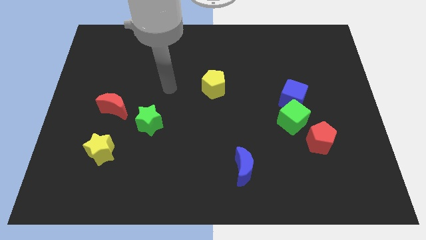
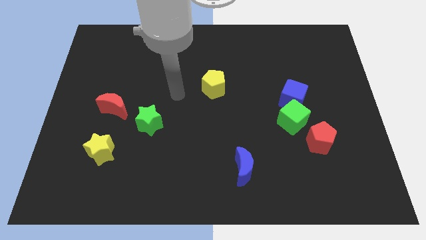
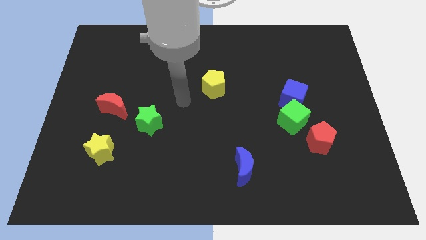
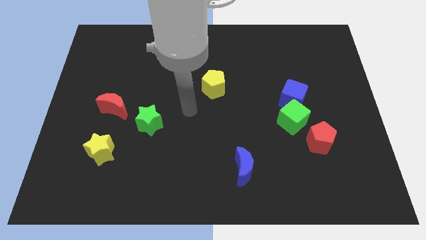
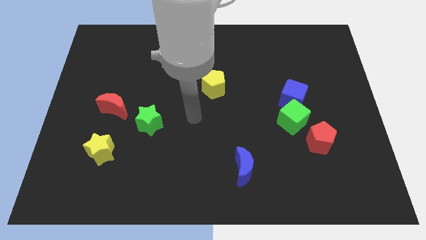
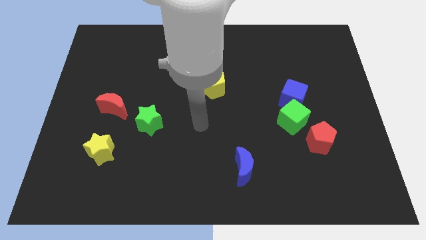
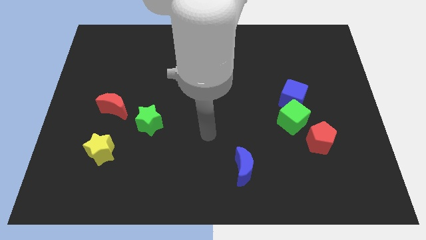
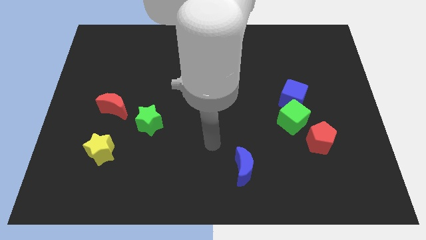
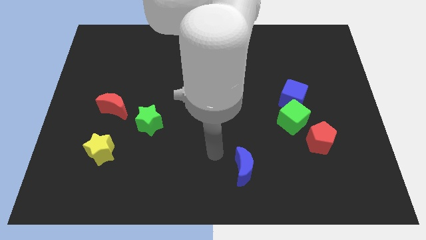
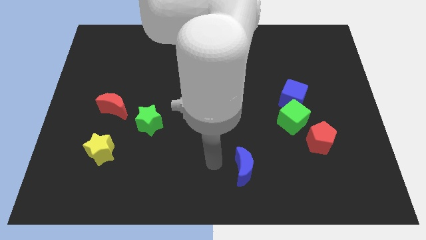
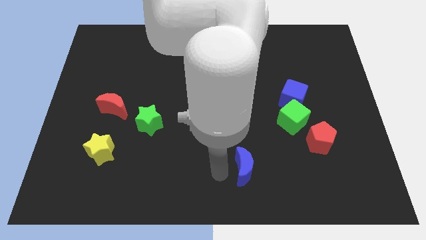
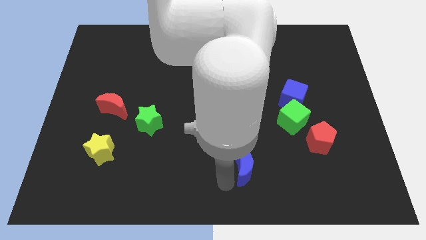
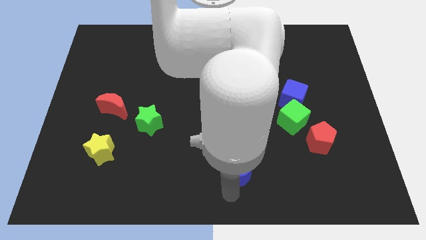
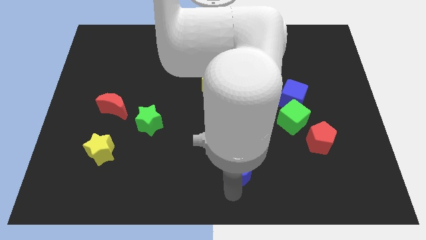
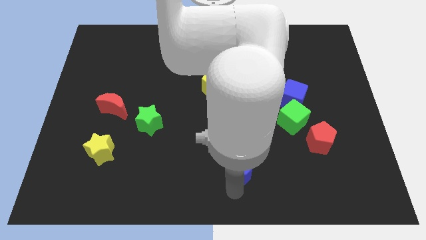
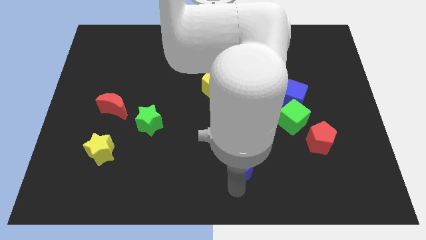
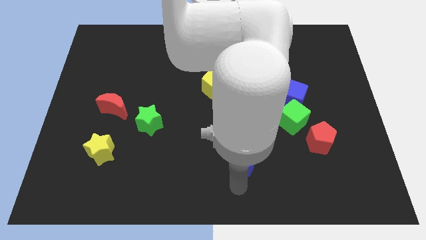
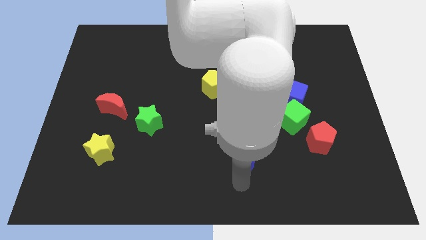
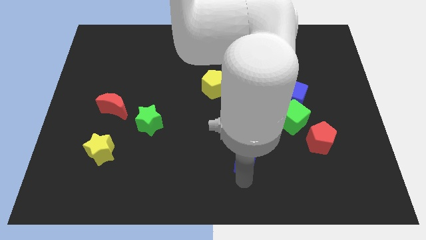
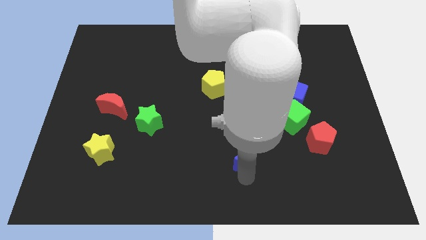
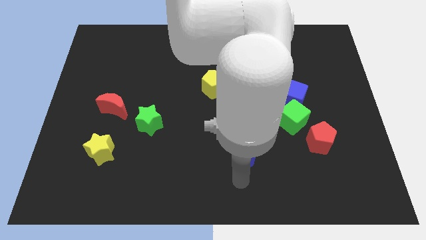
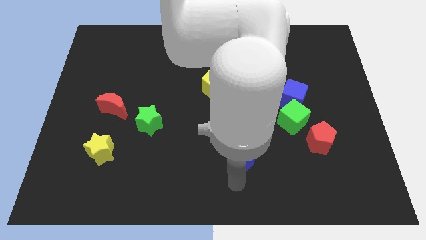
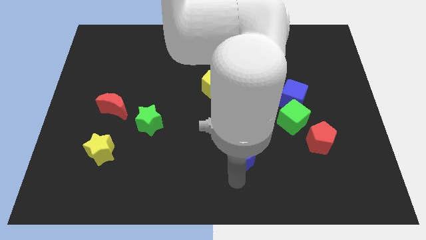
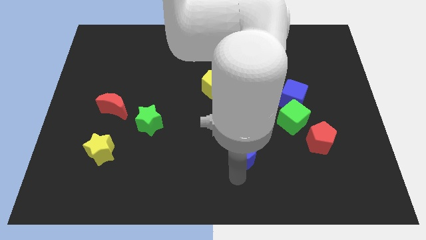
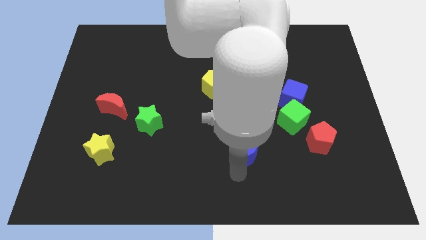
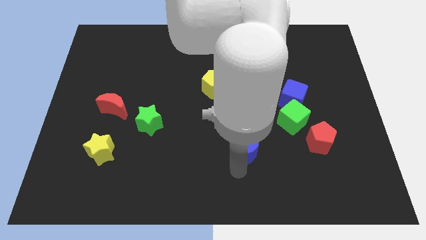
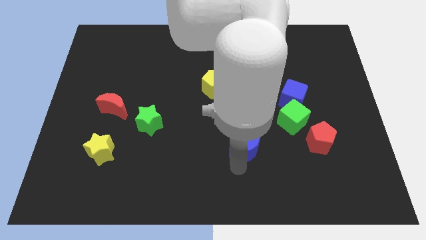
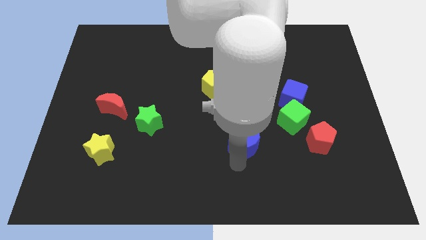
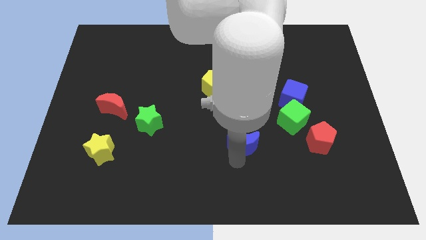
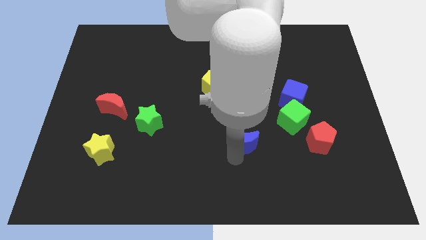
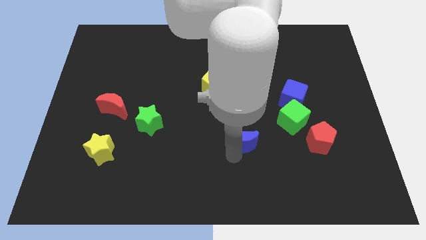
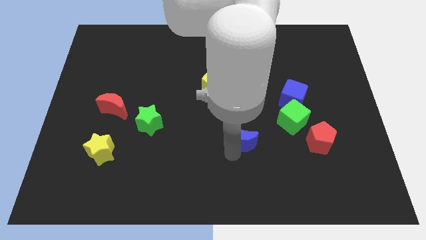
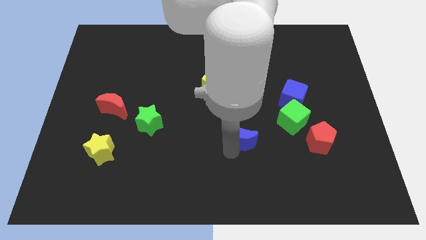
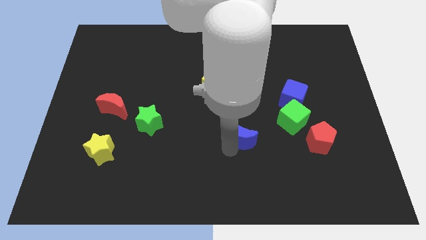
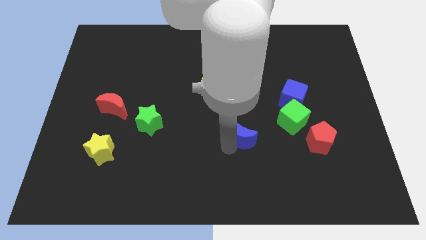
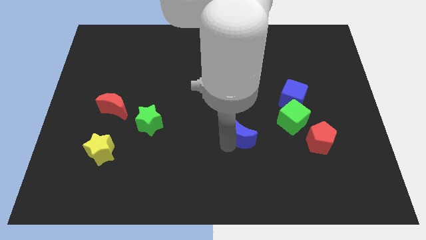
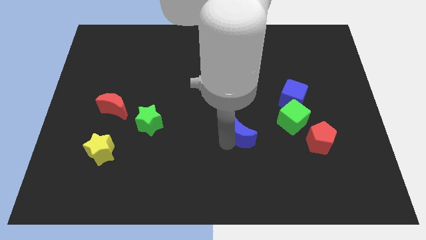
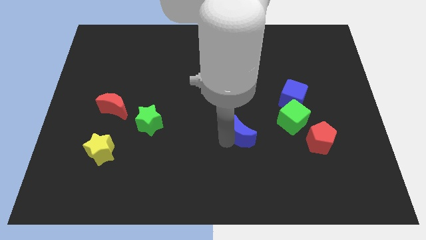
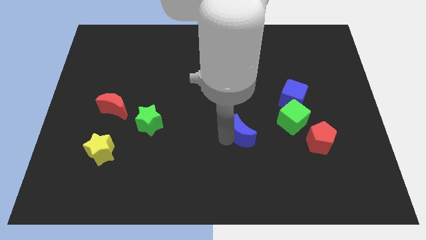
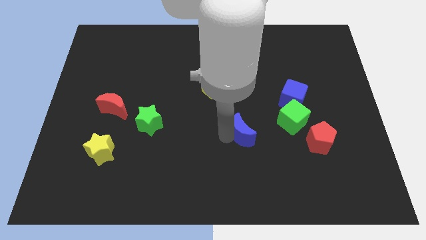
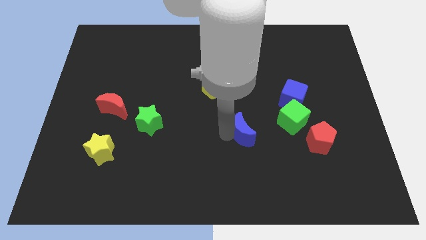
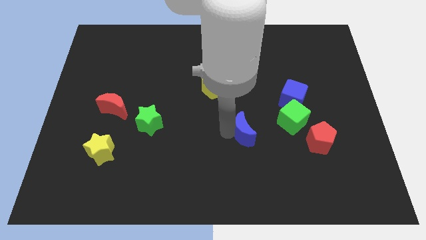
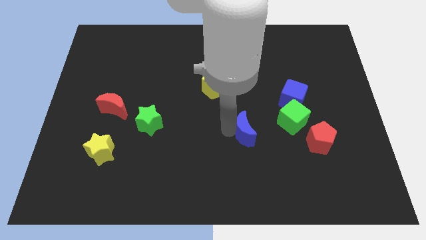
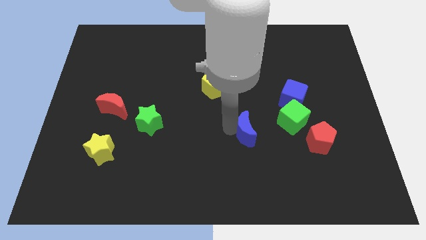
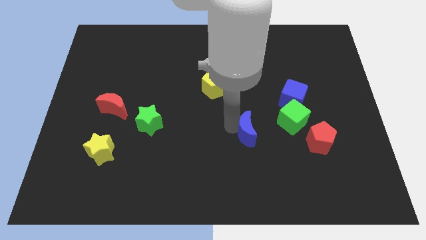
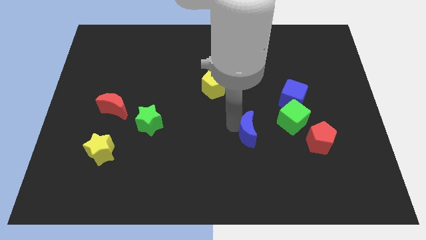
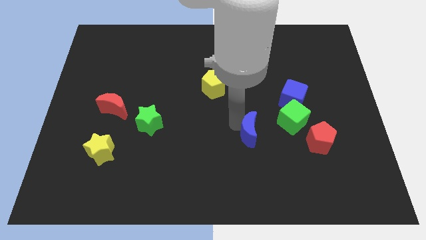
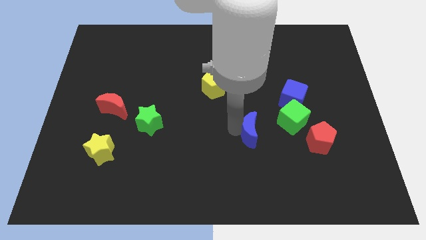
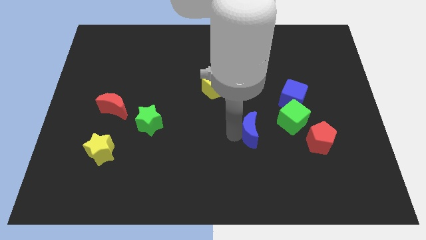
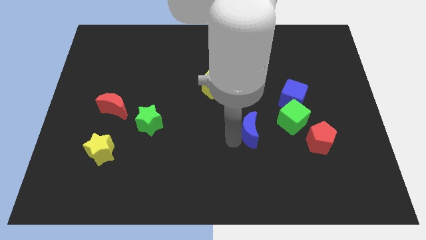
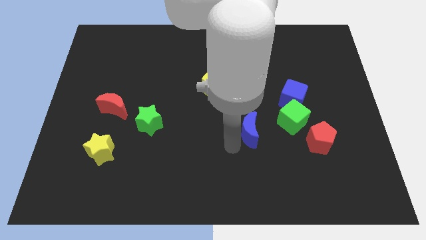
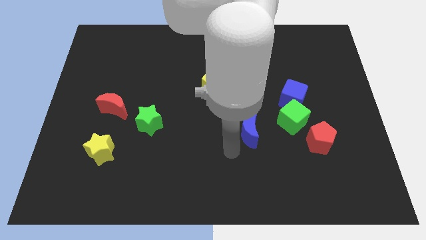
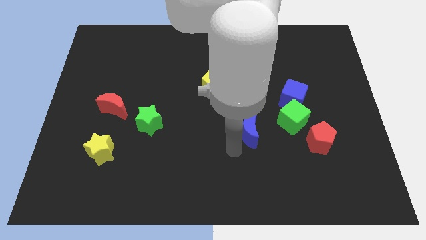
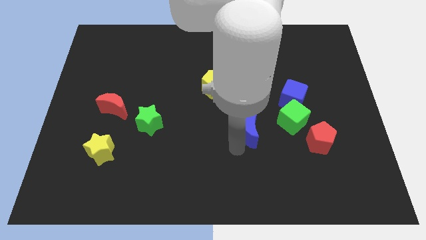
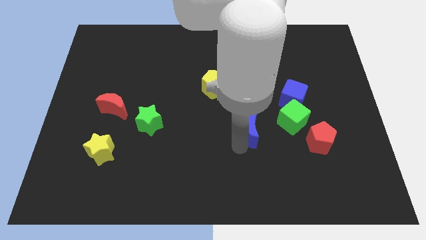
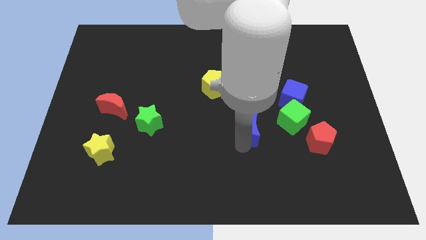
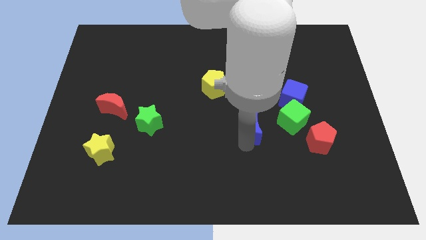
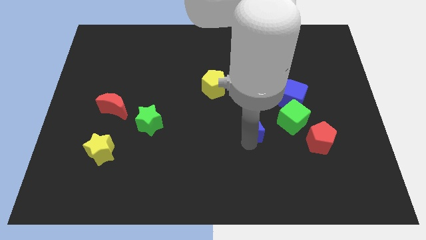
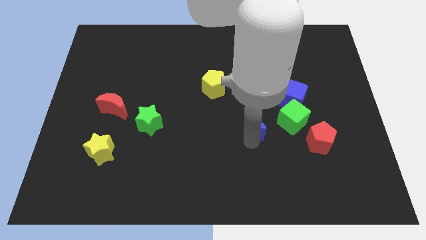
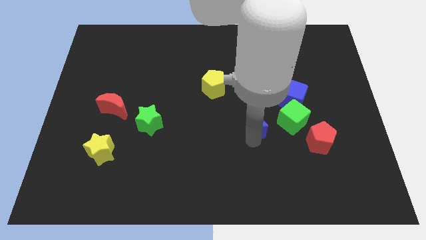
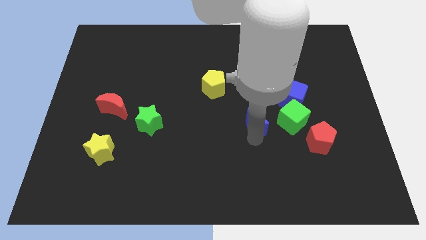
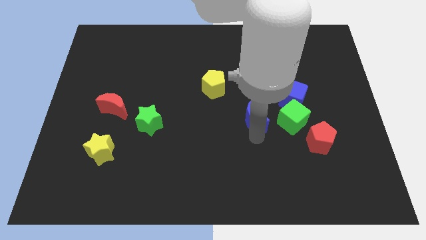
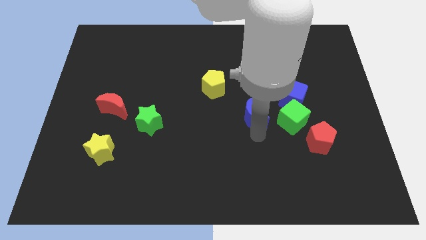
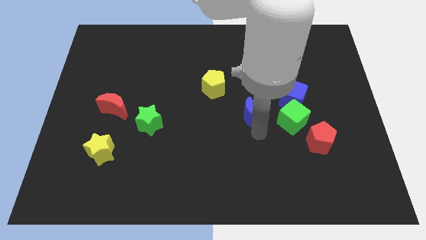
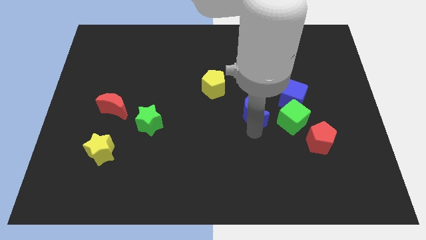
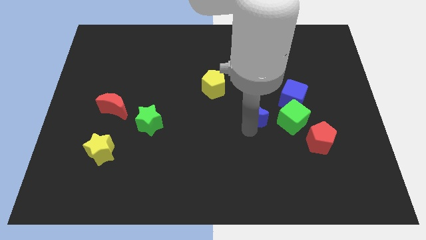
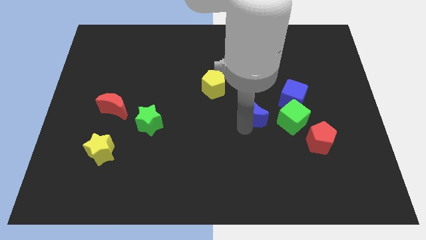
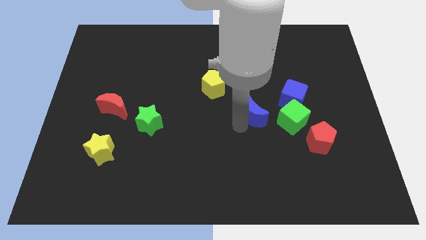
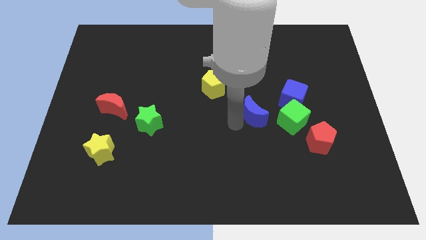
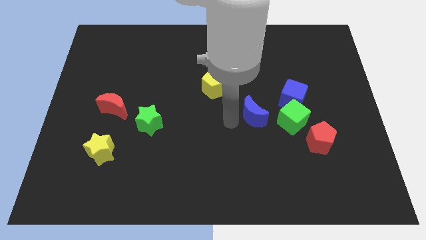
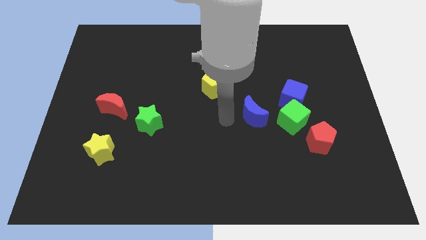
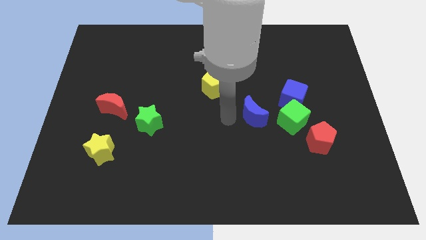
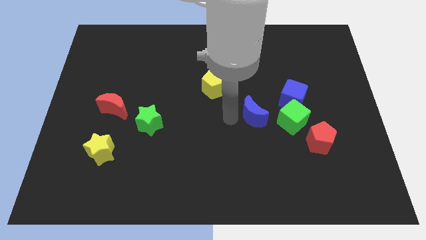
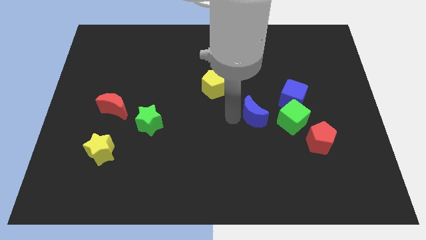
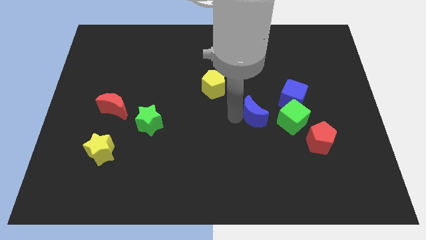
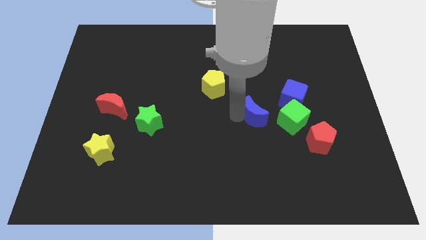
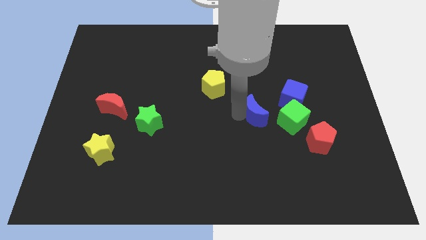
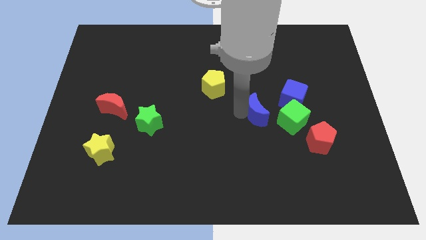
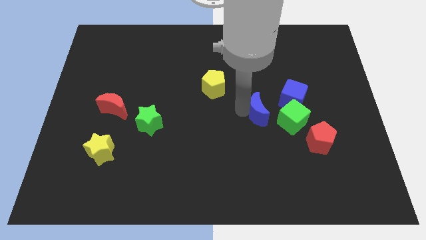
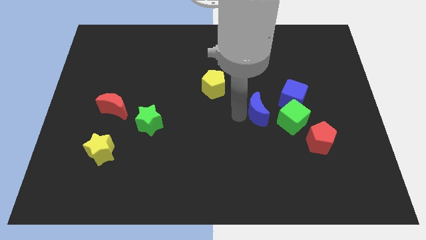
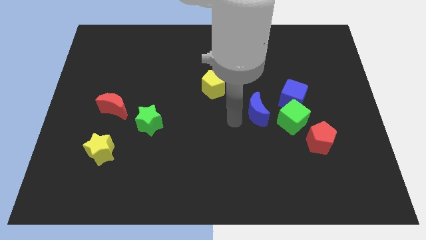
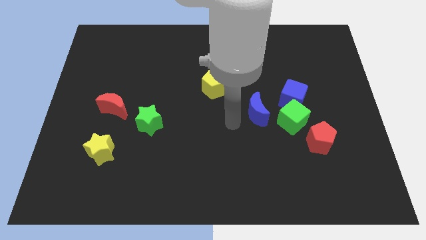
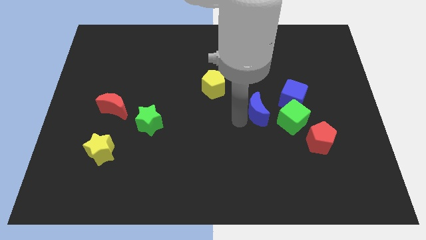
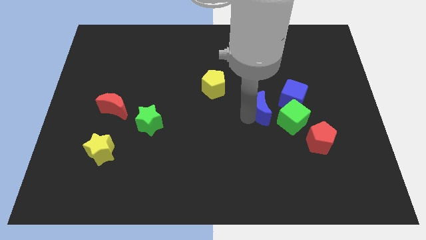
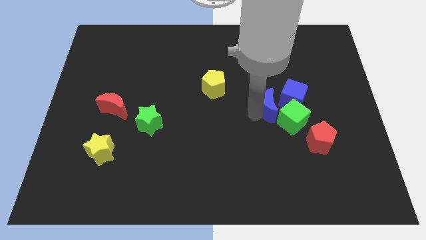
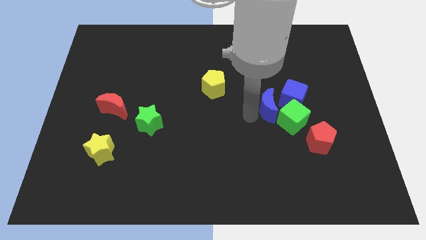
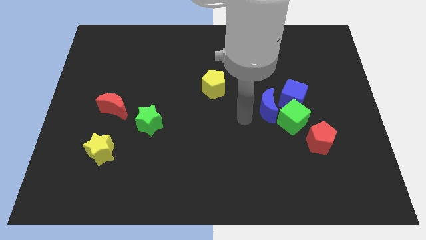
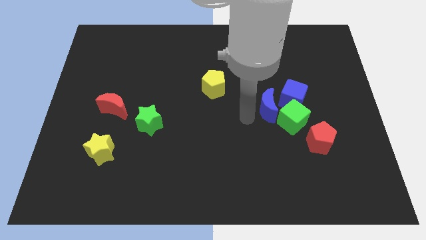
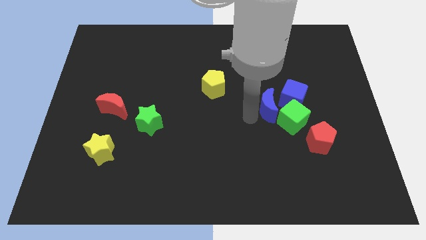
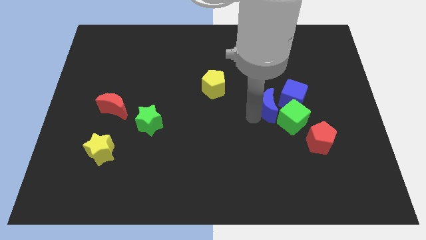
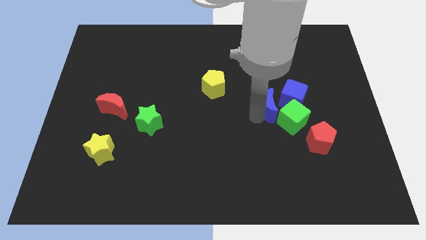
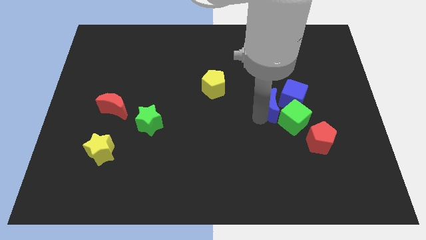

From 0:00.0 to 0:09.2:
put the blue moon next to the blue cube
